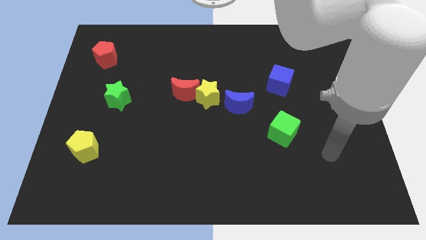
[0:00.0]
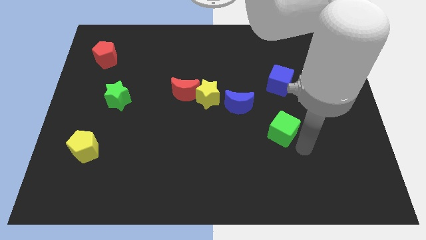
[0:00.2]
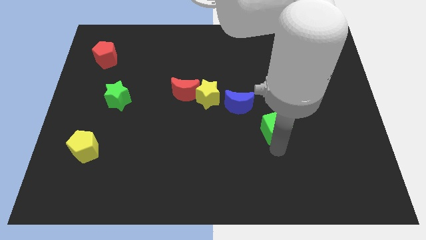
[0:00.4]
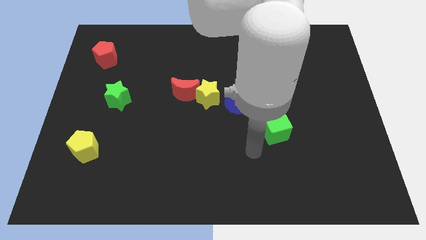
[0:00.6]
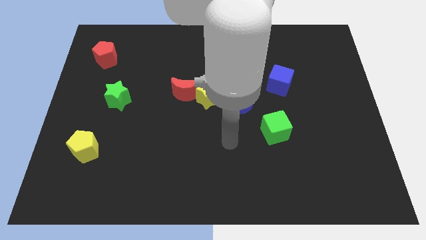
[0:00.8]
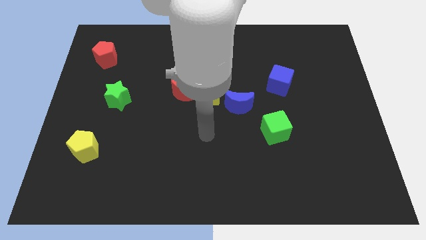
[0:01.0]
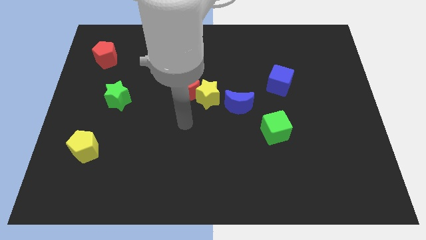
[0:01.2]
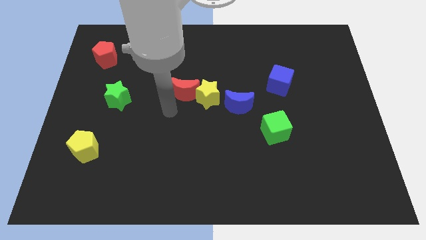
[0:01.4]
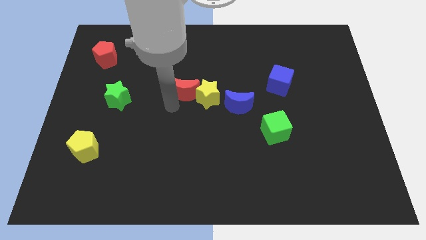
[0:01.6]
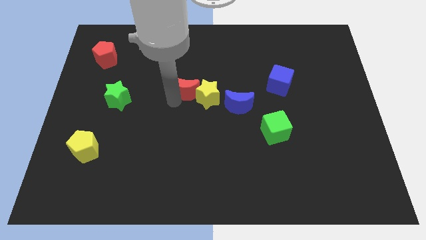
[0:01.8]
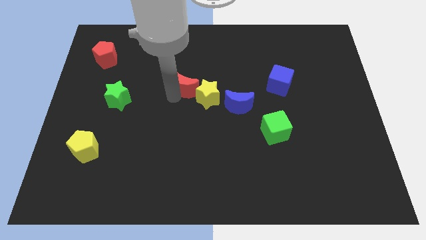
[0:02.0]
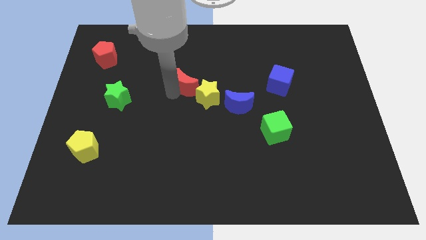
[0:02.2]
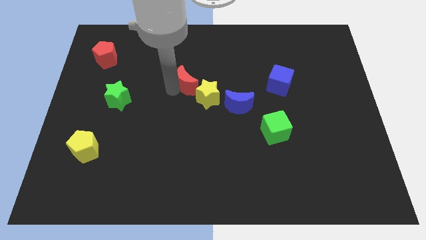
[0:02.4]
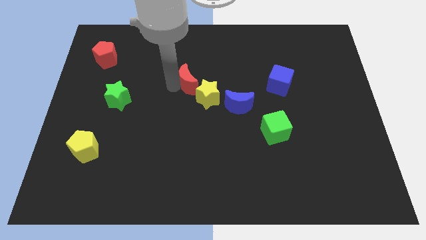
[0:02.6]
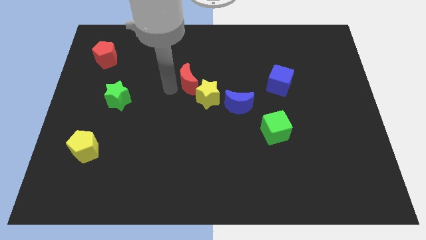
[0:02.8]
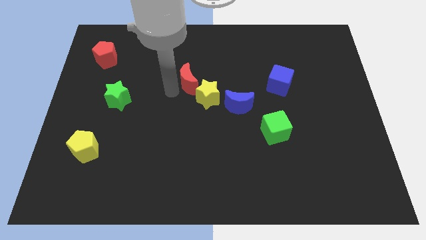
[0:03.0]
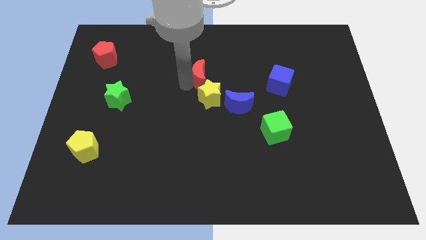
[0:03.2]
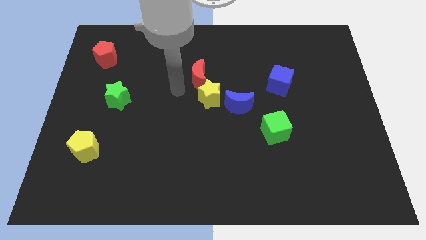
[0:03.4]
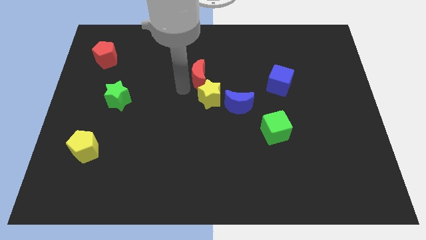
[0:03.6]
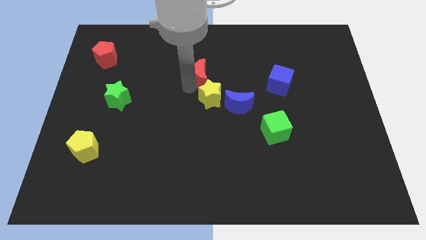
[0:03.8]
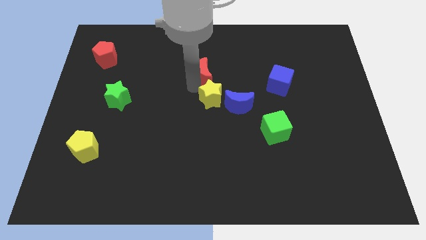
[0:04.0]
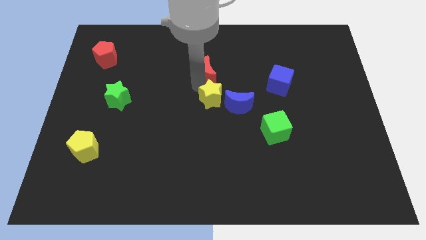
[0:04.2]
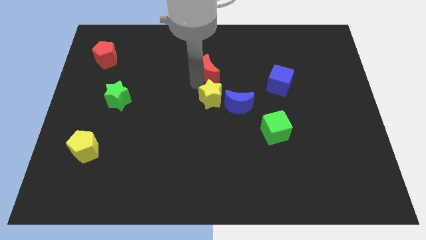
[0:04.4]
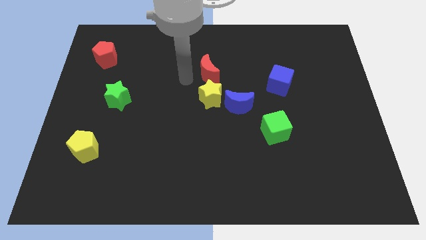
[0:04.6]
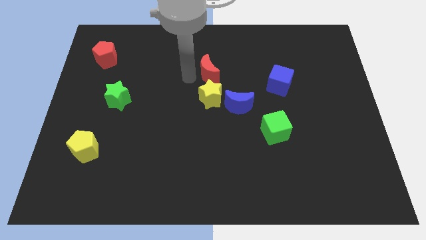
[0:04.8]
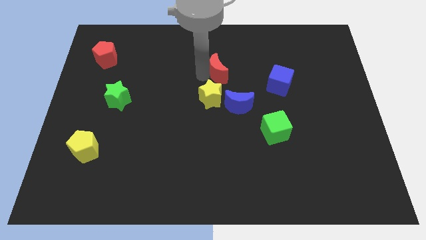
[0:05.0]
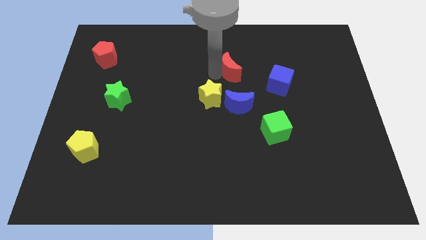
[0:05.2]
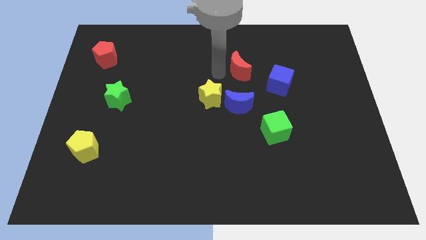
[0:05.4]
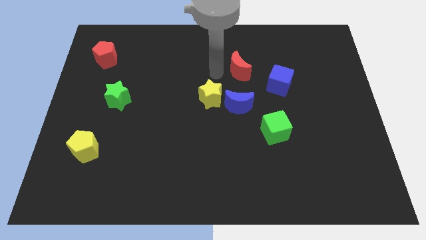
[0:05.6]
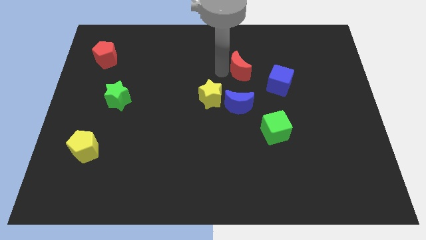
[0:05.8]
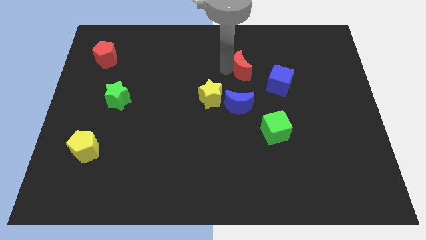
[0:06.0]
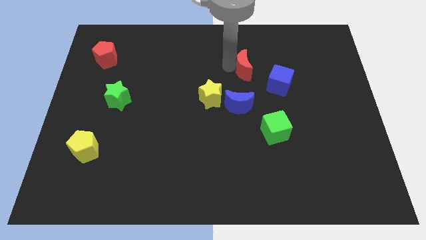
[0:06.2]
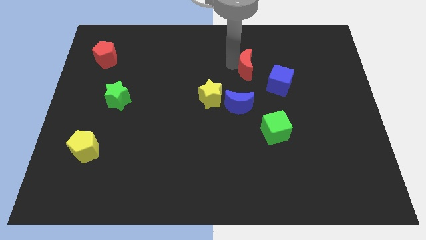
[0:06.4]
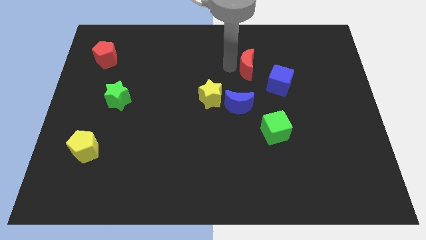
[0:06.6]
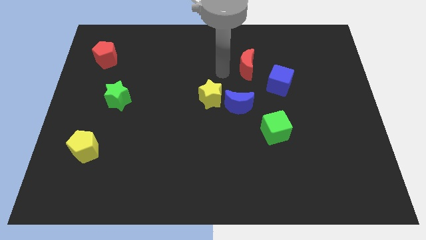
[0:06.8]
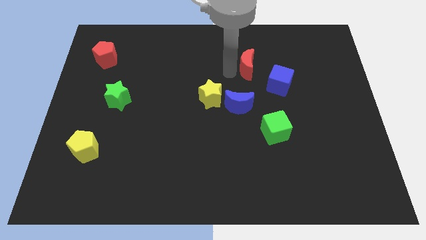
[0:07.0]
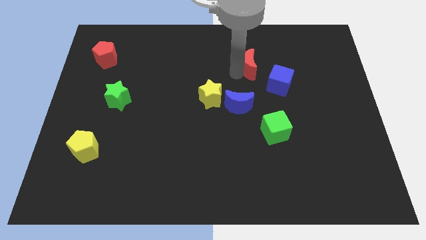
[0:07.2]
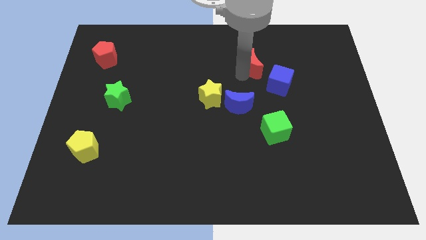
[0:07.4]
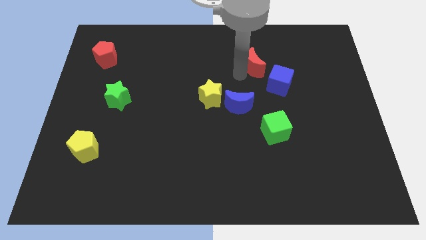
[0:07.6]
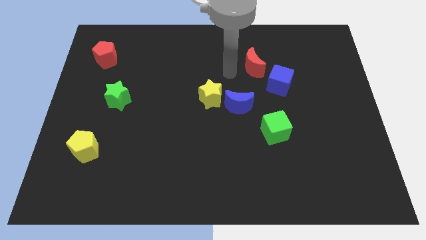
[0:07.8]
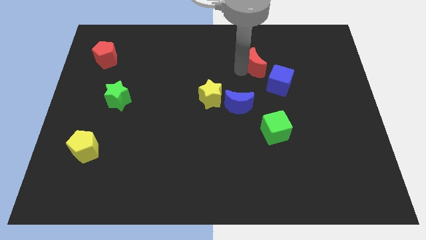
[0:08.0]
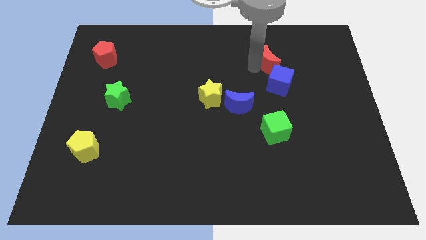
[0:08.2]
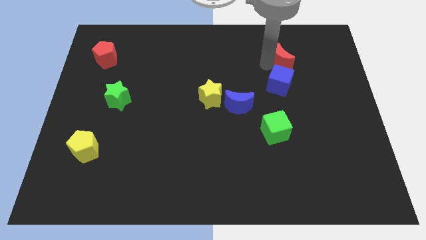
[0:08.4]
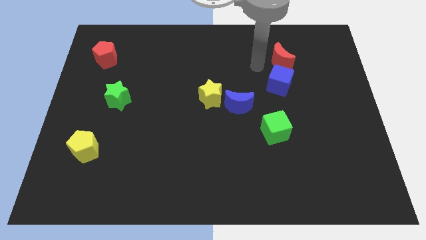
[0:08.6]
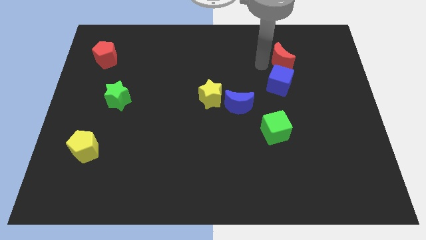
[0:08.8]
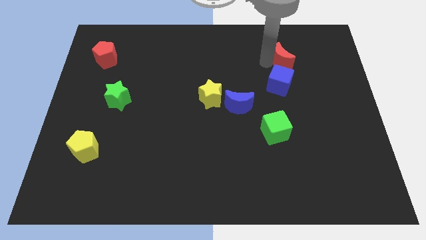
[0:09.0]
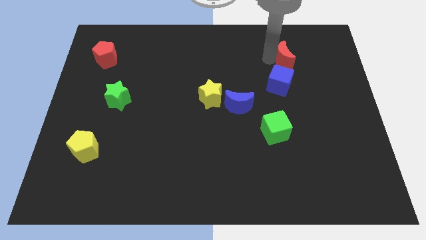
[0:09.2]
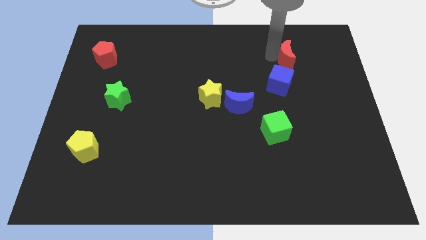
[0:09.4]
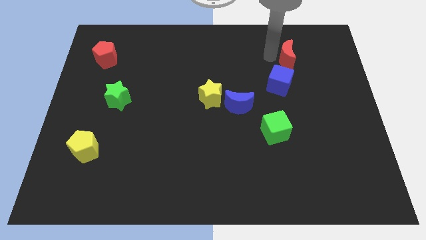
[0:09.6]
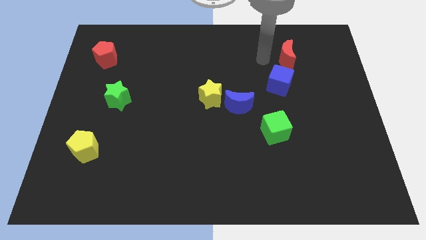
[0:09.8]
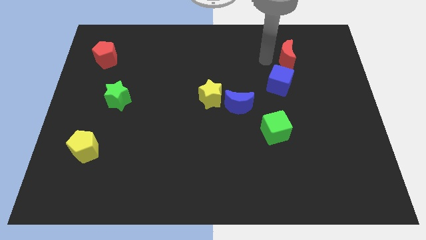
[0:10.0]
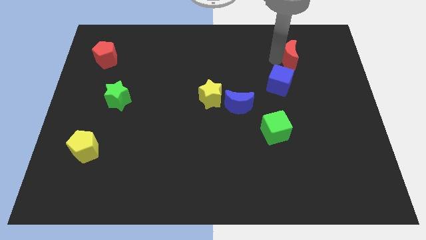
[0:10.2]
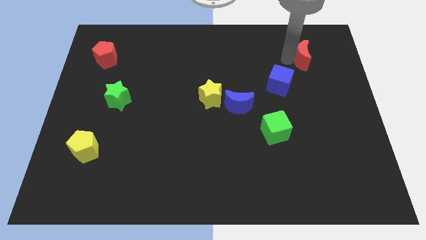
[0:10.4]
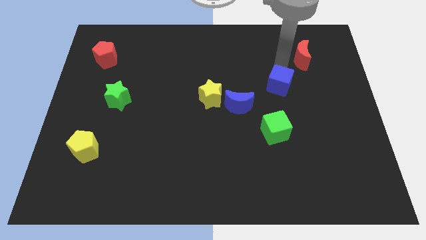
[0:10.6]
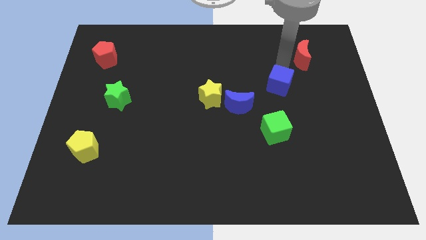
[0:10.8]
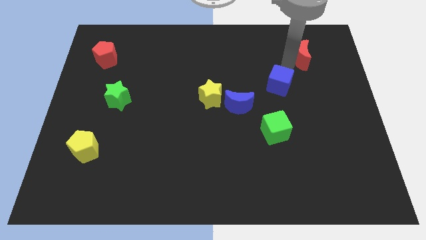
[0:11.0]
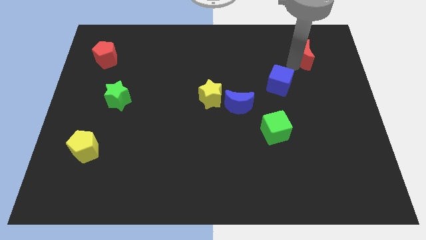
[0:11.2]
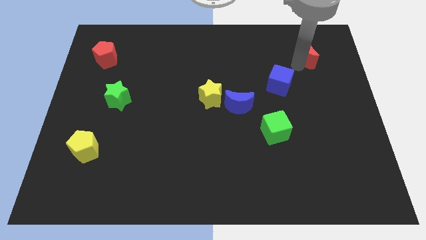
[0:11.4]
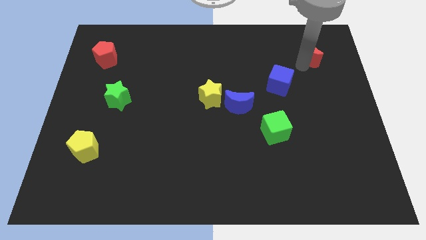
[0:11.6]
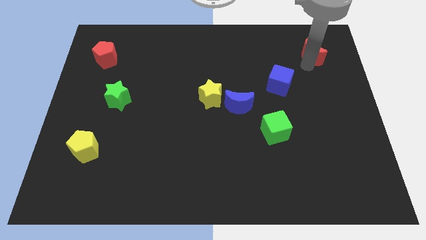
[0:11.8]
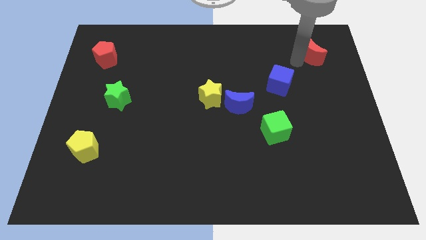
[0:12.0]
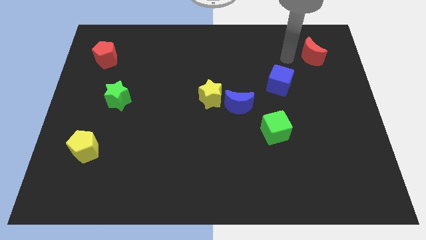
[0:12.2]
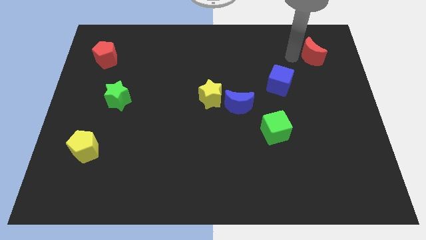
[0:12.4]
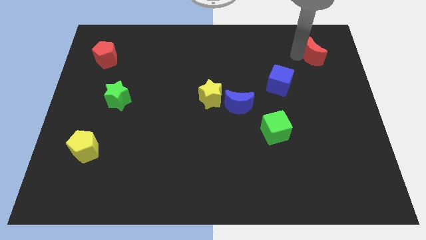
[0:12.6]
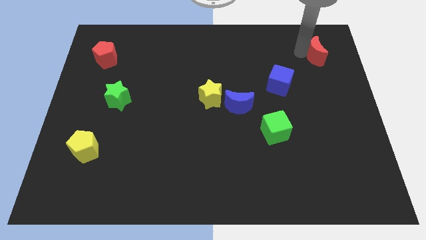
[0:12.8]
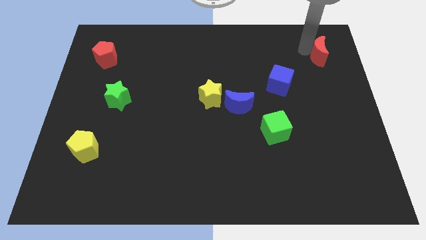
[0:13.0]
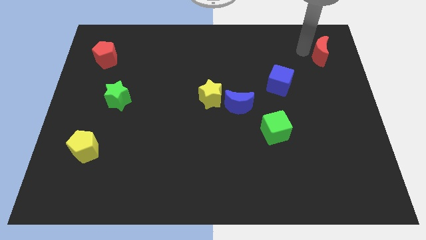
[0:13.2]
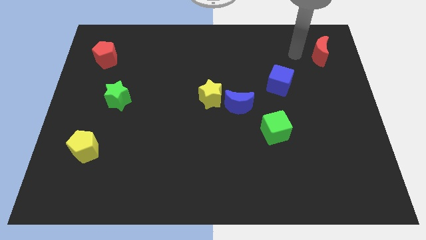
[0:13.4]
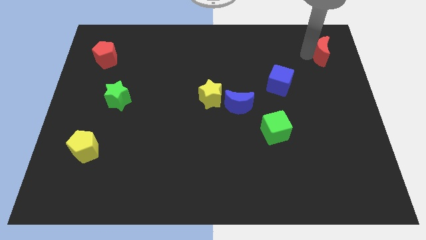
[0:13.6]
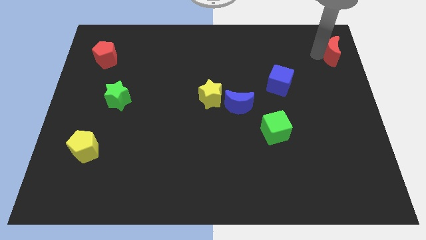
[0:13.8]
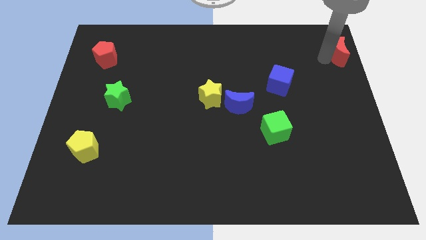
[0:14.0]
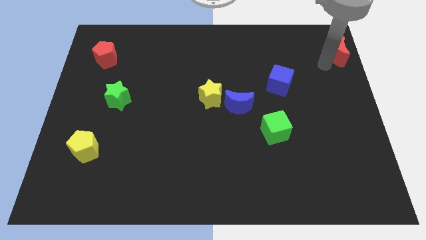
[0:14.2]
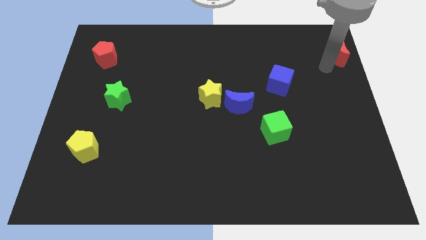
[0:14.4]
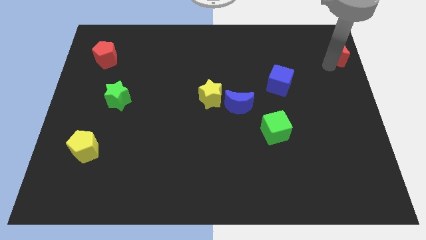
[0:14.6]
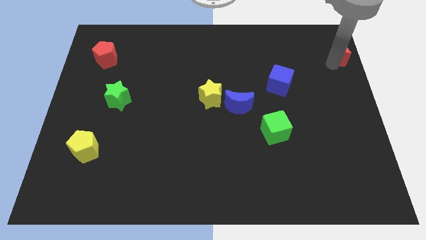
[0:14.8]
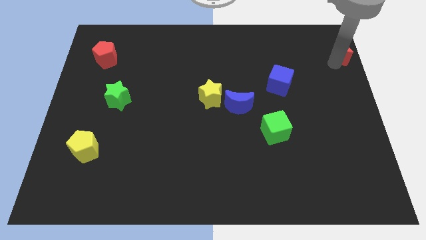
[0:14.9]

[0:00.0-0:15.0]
put the red moon to the upper right corner
